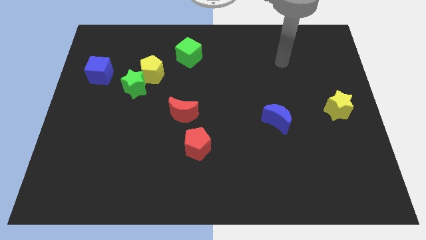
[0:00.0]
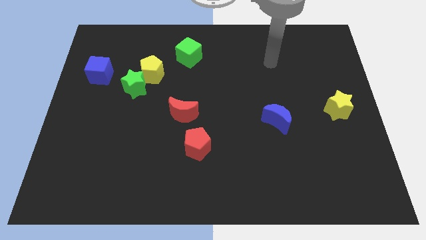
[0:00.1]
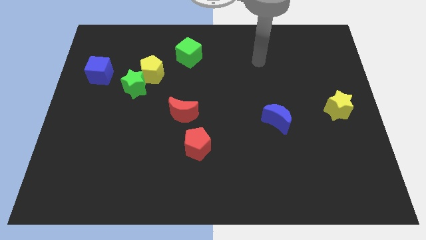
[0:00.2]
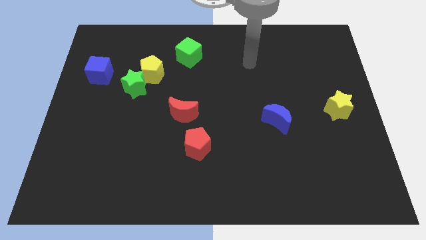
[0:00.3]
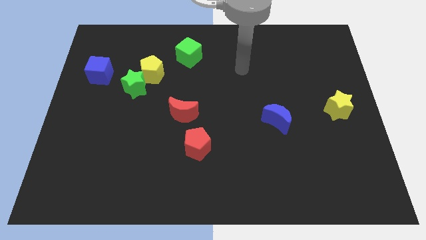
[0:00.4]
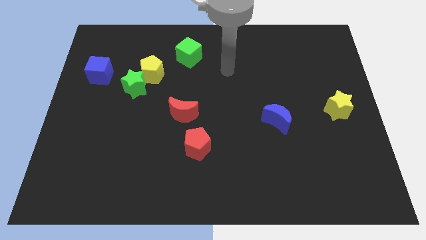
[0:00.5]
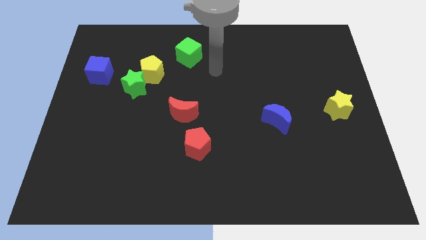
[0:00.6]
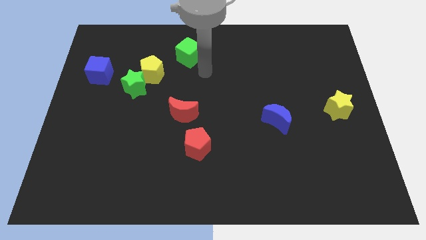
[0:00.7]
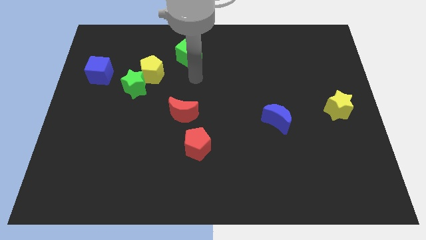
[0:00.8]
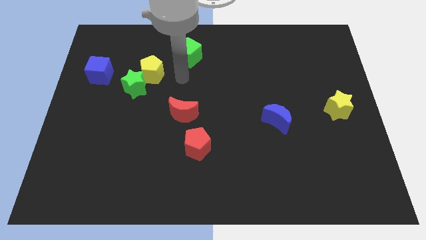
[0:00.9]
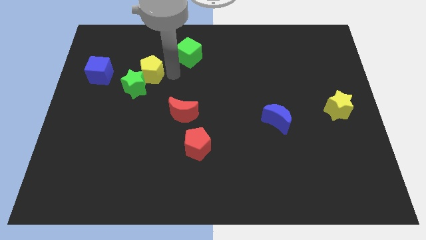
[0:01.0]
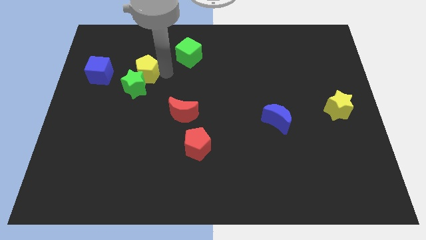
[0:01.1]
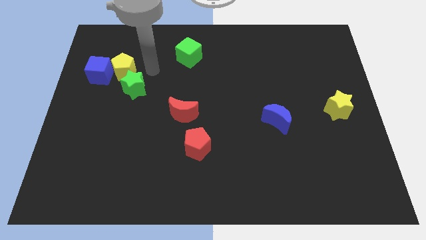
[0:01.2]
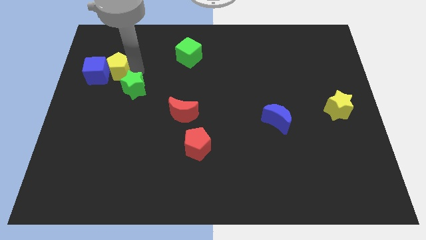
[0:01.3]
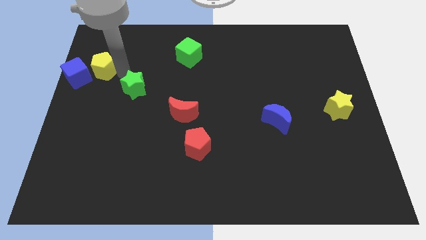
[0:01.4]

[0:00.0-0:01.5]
pull the green star apart from the yellow pentagon

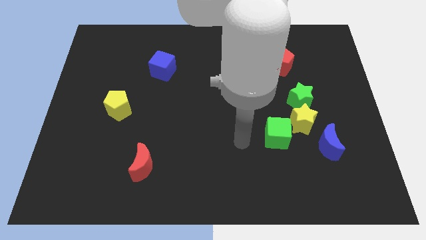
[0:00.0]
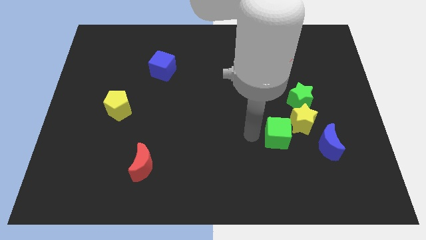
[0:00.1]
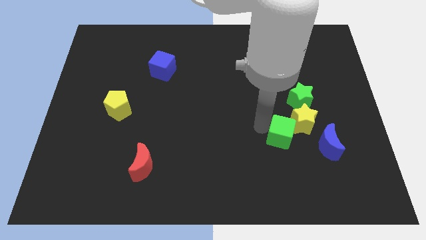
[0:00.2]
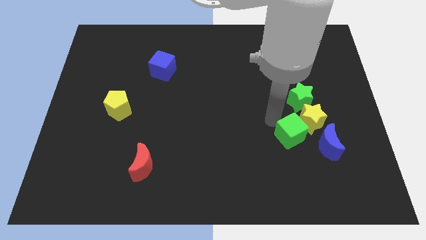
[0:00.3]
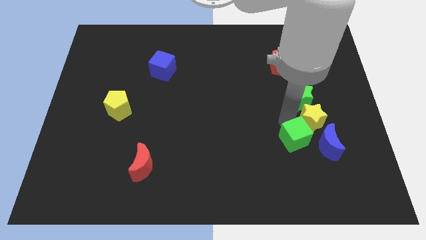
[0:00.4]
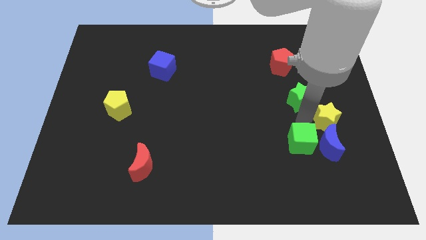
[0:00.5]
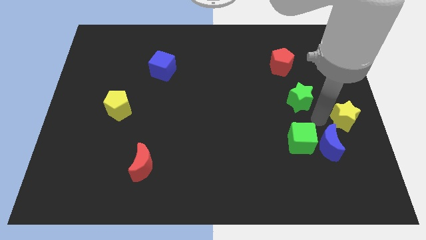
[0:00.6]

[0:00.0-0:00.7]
pull the green star apart from the yellow star

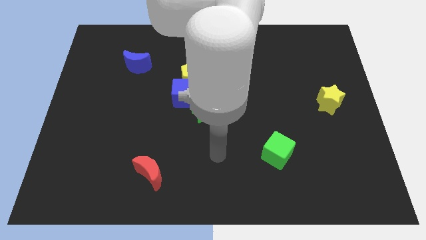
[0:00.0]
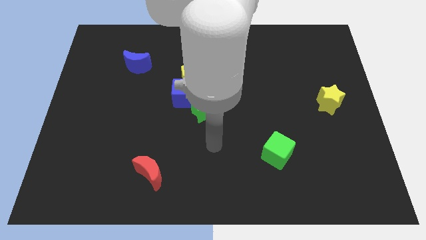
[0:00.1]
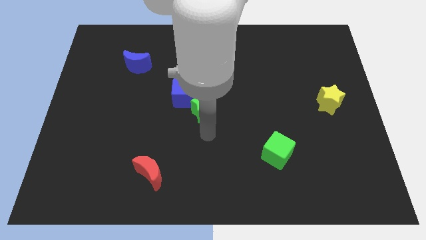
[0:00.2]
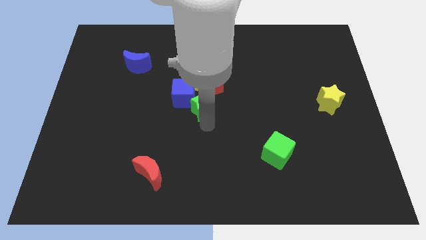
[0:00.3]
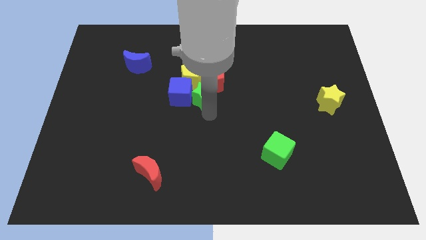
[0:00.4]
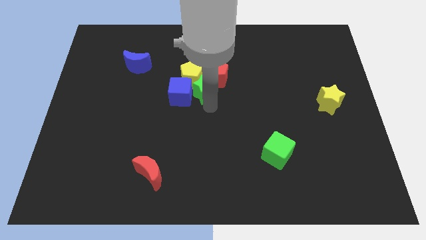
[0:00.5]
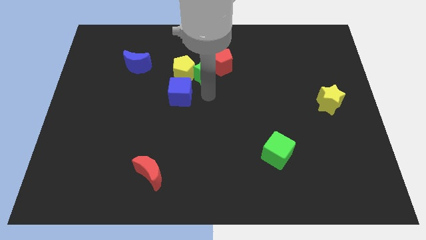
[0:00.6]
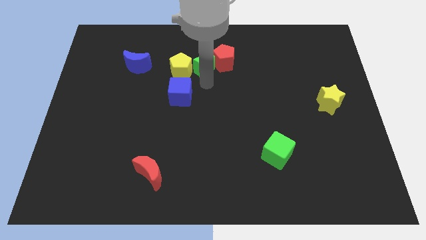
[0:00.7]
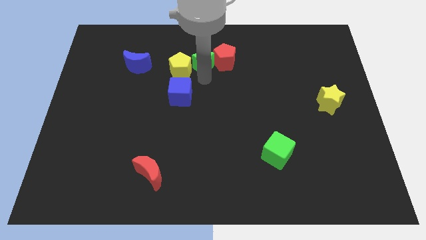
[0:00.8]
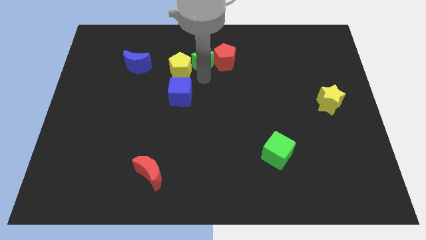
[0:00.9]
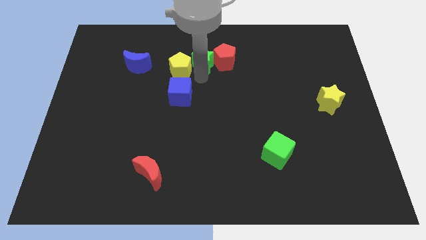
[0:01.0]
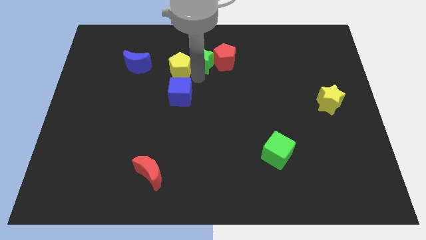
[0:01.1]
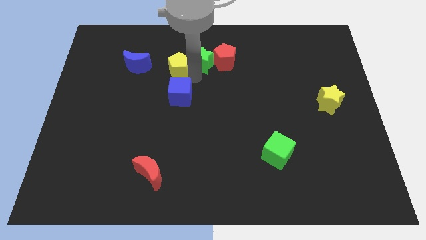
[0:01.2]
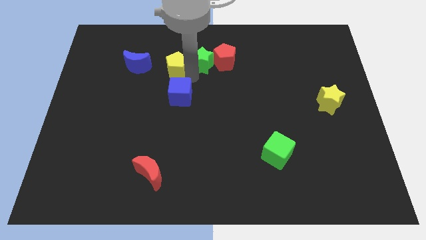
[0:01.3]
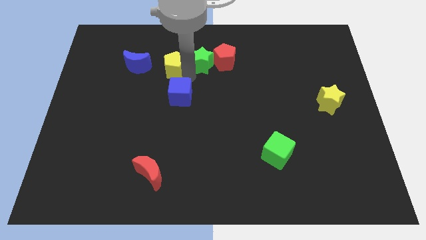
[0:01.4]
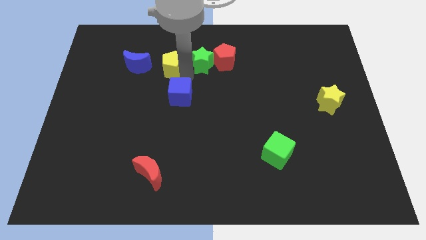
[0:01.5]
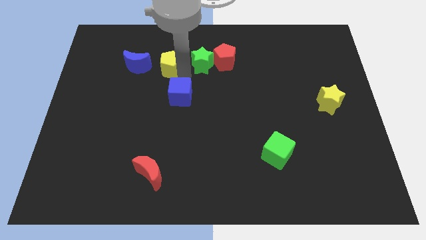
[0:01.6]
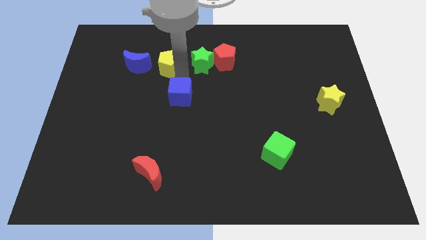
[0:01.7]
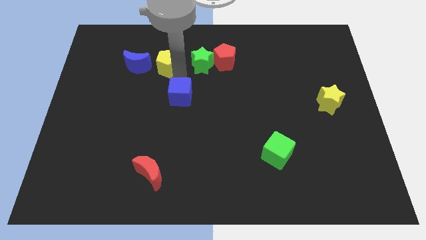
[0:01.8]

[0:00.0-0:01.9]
separate the yellow pentagon from the blue cube and red pentagon

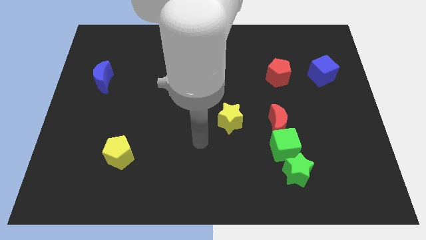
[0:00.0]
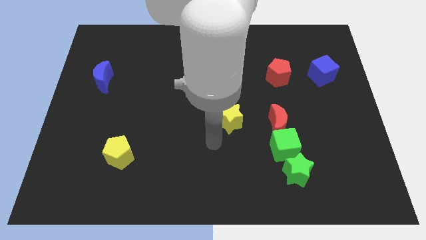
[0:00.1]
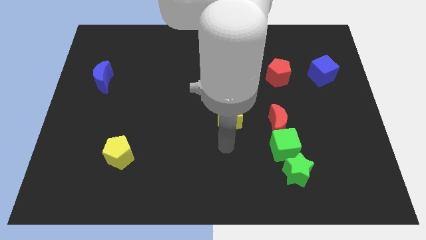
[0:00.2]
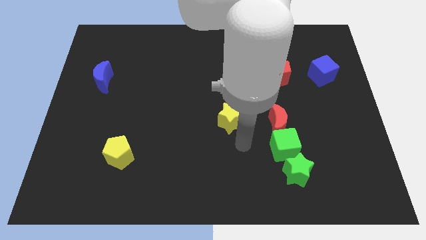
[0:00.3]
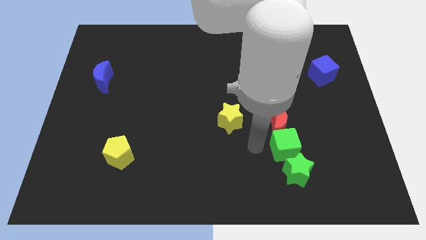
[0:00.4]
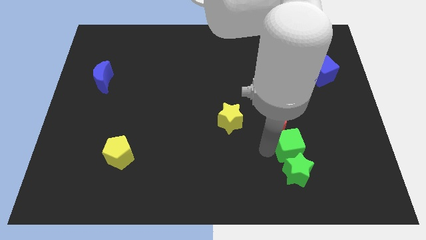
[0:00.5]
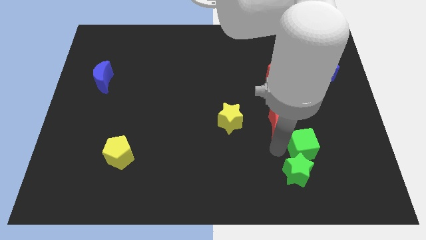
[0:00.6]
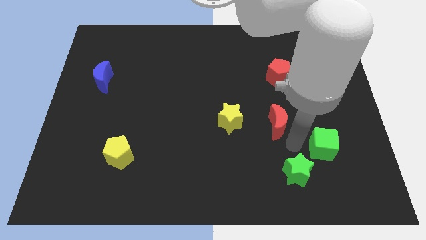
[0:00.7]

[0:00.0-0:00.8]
move the red moon away from the green cube

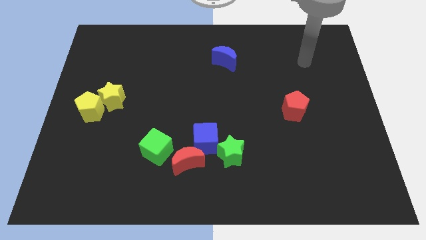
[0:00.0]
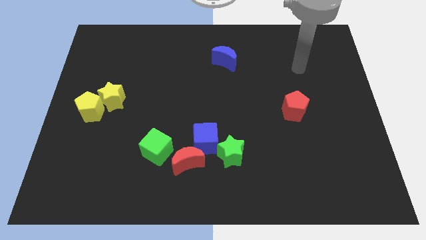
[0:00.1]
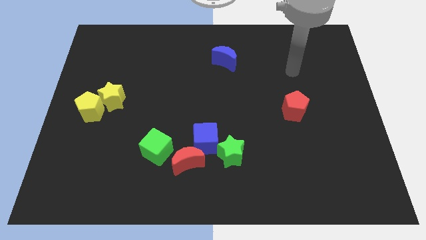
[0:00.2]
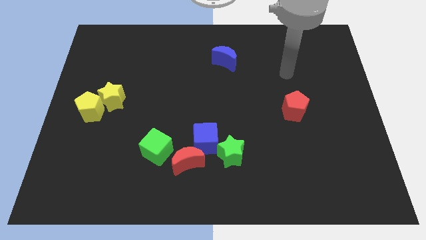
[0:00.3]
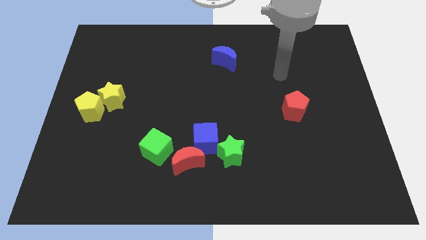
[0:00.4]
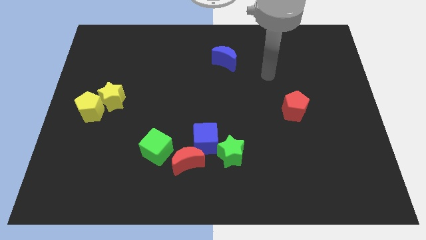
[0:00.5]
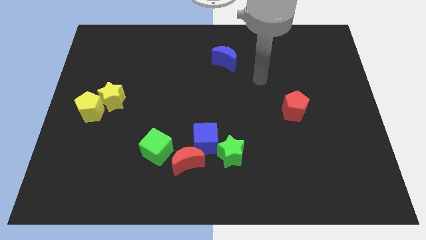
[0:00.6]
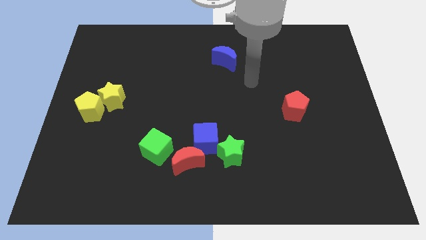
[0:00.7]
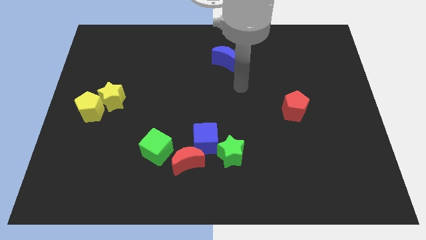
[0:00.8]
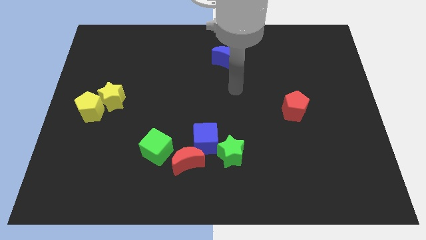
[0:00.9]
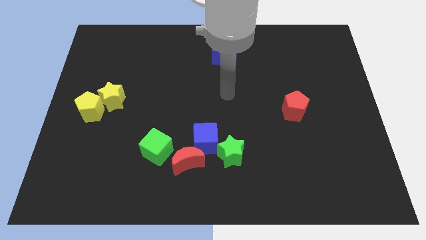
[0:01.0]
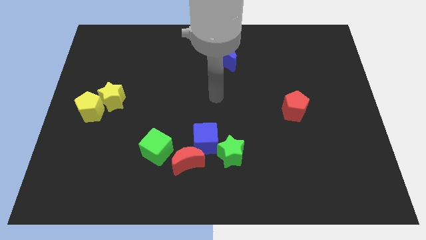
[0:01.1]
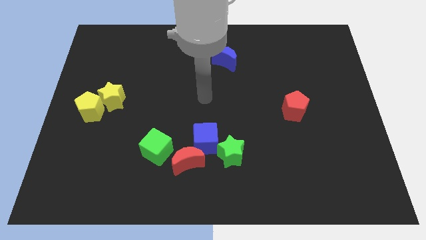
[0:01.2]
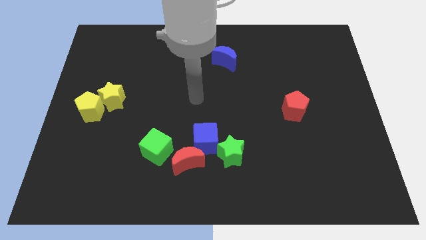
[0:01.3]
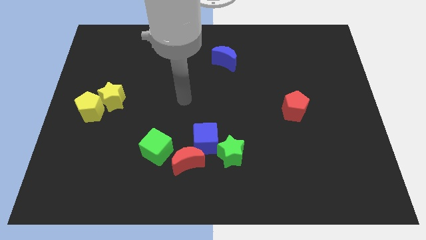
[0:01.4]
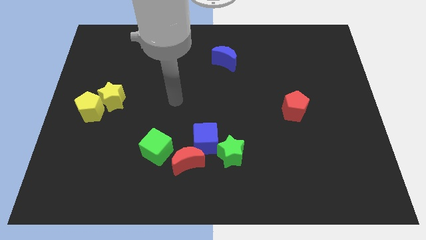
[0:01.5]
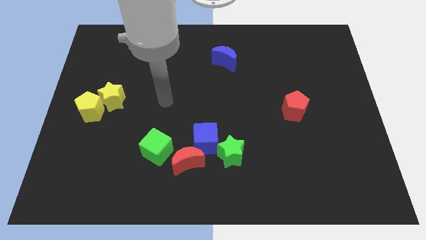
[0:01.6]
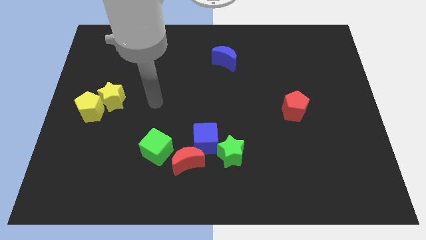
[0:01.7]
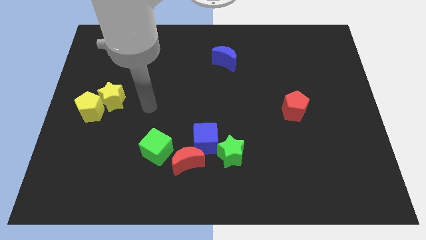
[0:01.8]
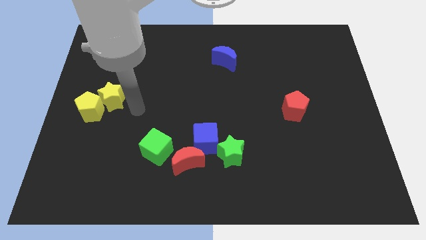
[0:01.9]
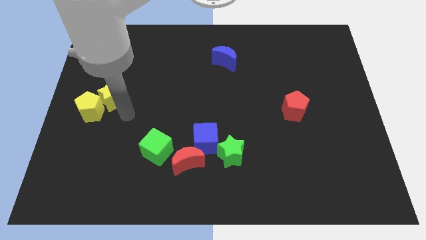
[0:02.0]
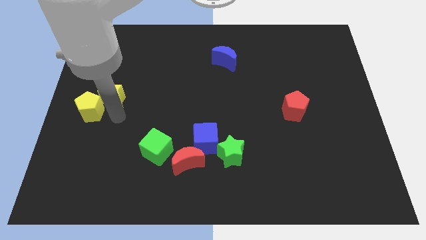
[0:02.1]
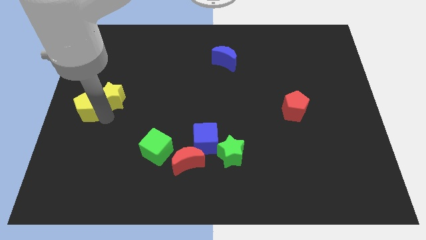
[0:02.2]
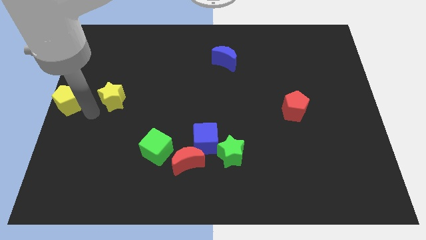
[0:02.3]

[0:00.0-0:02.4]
move the yellow star away from the yellow pentagon

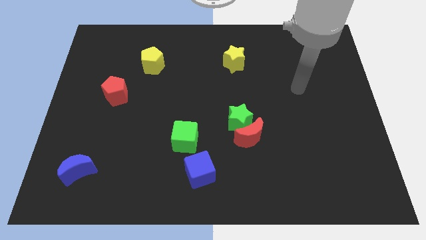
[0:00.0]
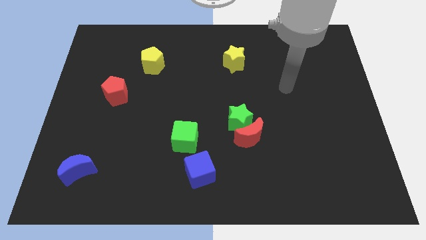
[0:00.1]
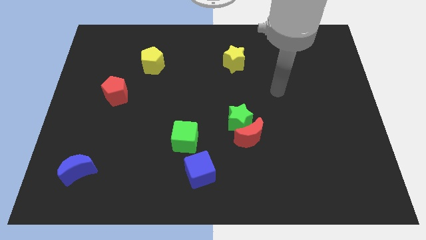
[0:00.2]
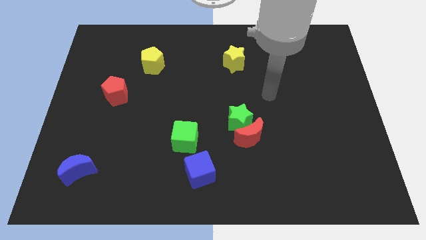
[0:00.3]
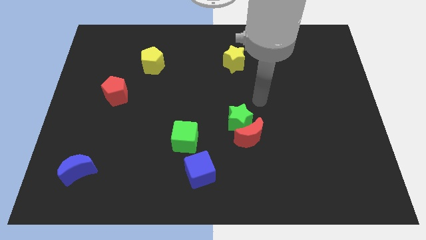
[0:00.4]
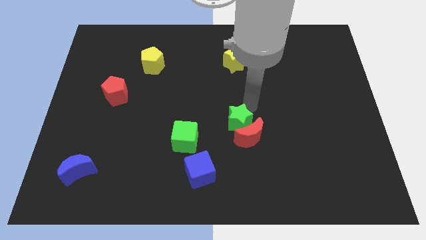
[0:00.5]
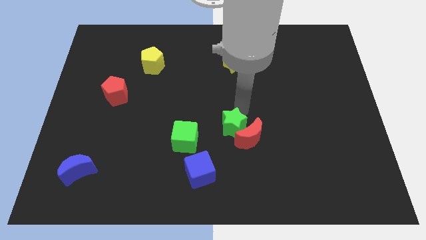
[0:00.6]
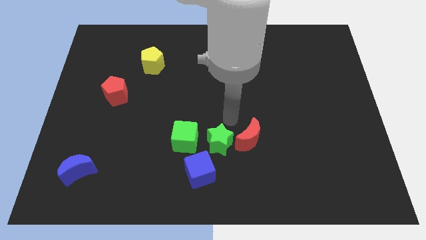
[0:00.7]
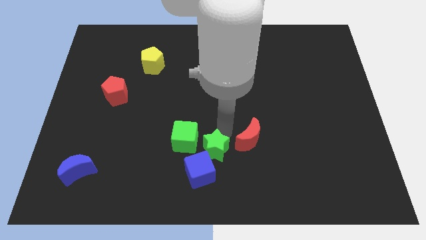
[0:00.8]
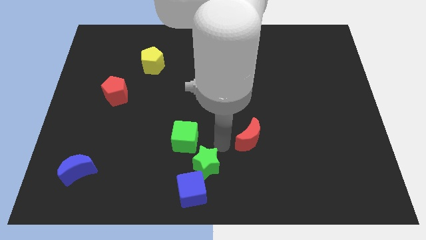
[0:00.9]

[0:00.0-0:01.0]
separate the red moon from the green star

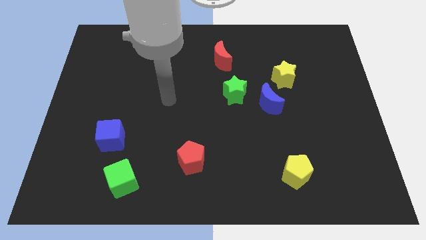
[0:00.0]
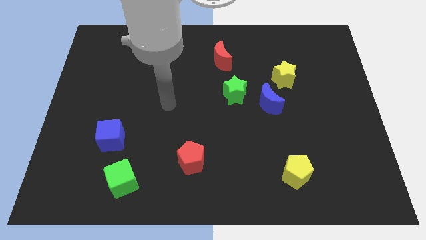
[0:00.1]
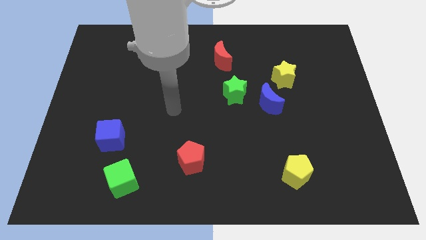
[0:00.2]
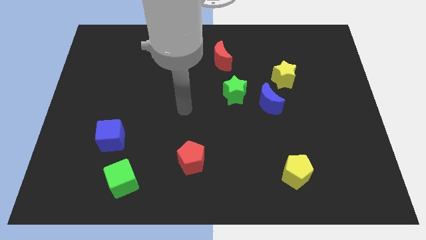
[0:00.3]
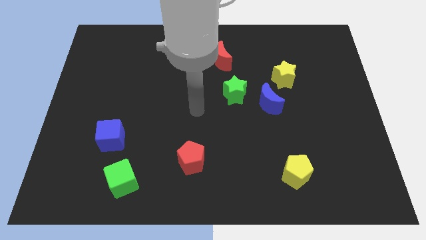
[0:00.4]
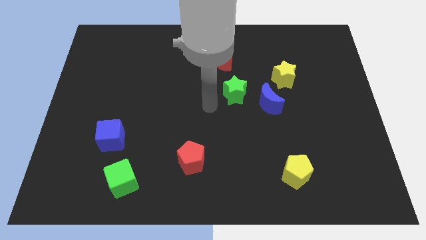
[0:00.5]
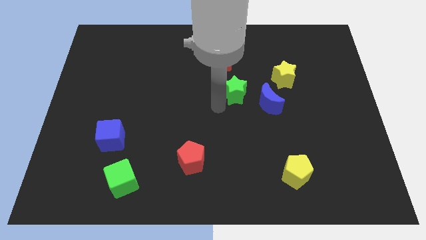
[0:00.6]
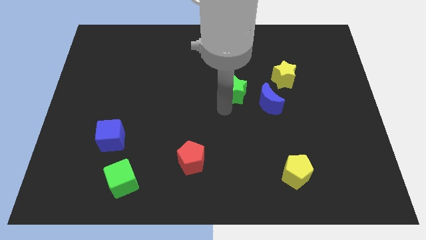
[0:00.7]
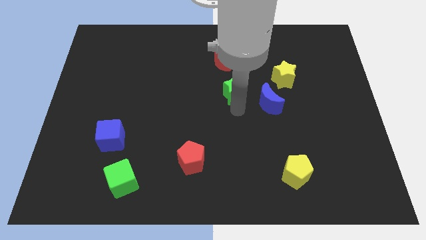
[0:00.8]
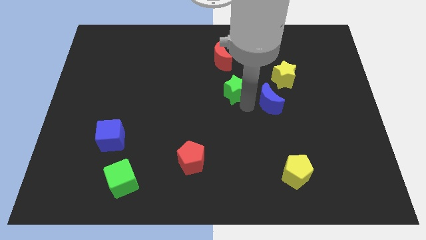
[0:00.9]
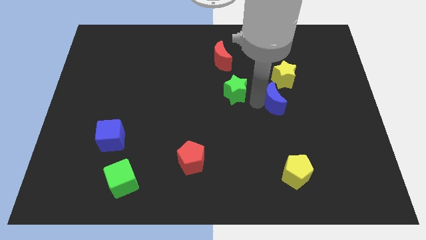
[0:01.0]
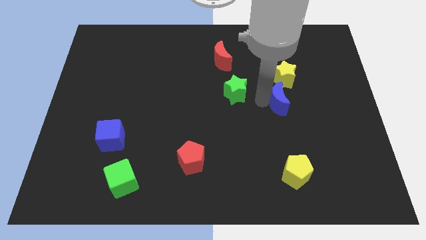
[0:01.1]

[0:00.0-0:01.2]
separate the green star from the blue moon
